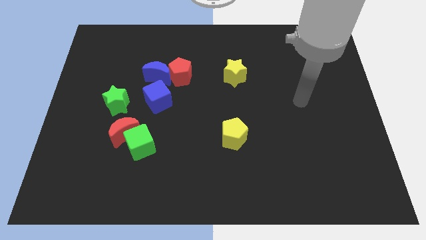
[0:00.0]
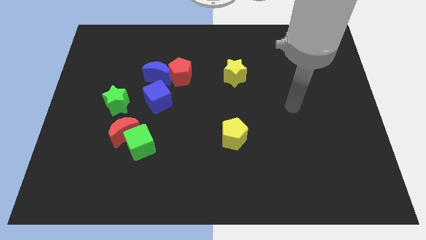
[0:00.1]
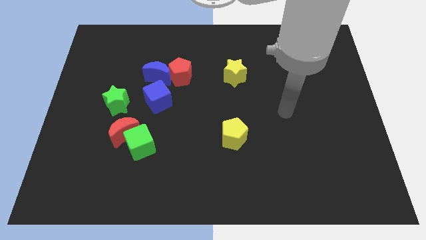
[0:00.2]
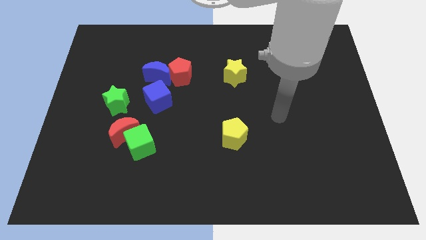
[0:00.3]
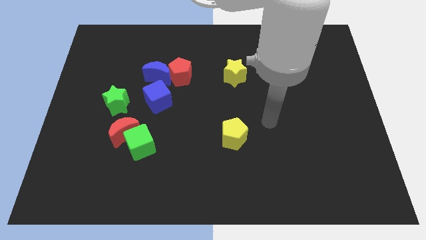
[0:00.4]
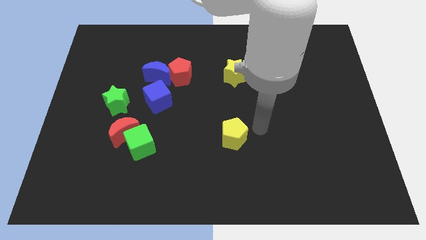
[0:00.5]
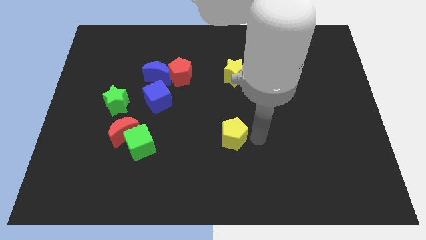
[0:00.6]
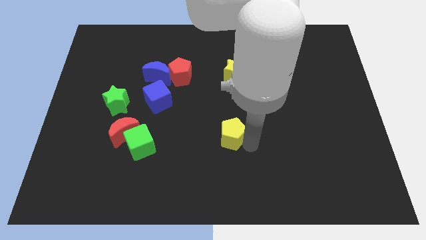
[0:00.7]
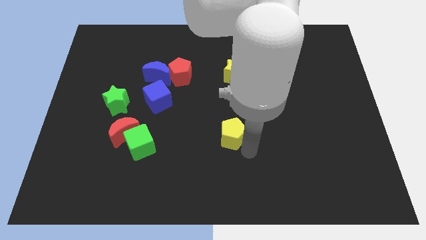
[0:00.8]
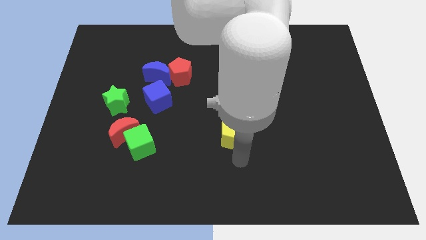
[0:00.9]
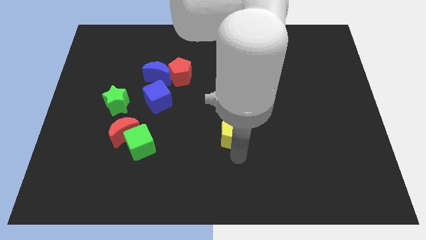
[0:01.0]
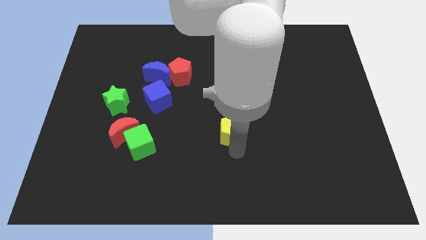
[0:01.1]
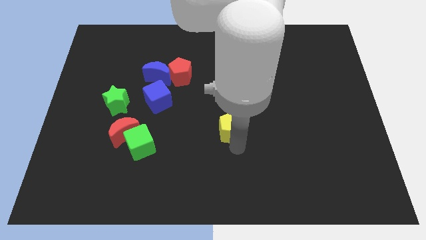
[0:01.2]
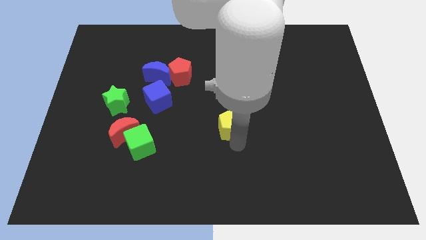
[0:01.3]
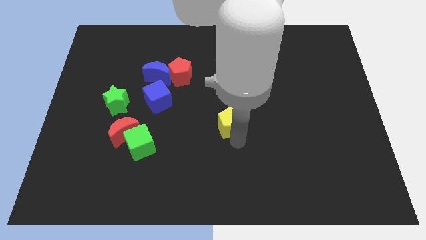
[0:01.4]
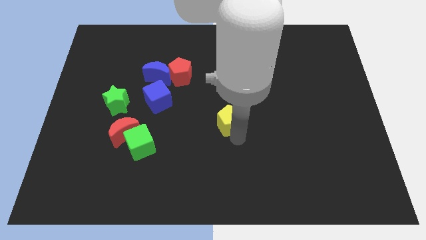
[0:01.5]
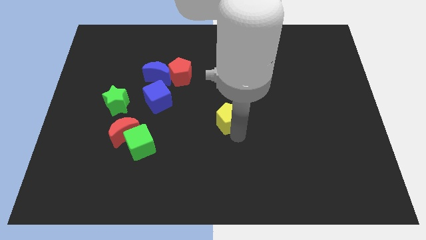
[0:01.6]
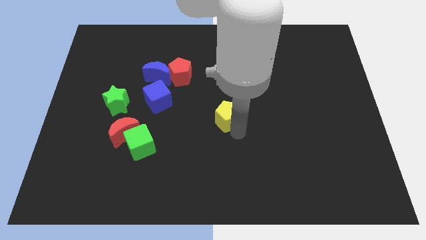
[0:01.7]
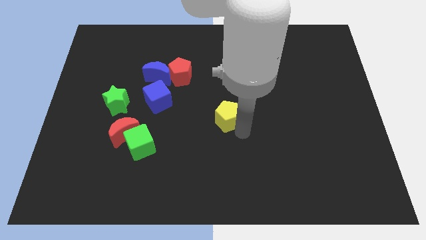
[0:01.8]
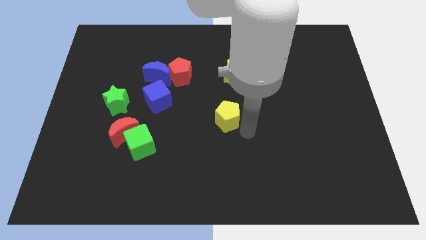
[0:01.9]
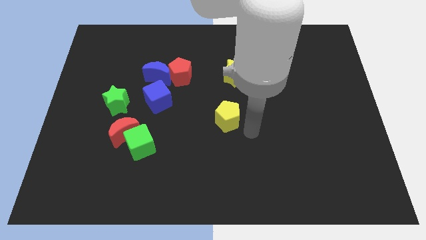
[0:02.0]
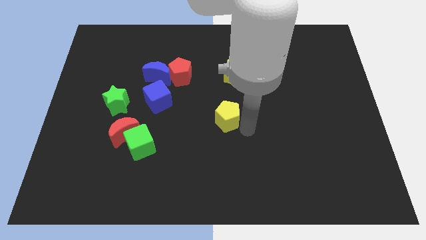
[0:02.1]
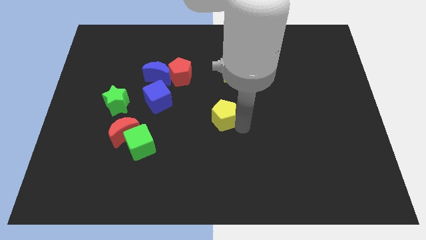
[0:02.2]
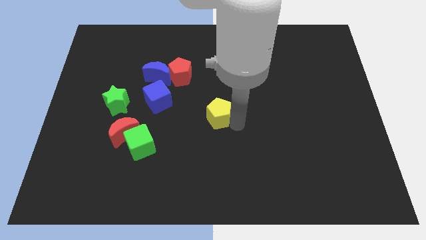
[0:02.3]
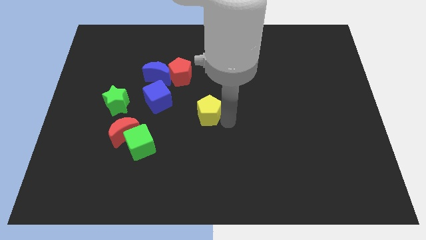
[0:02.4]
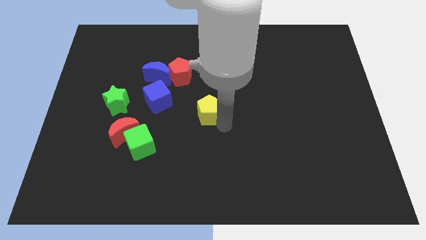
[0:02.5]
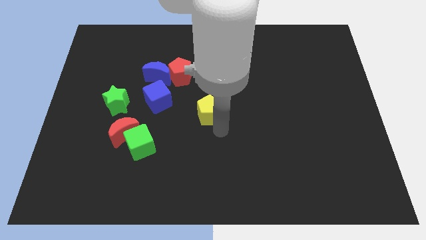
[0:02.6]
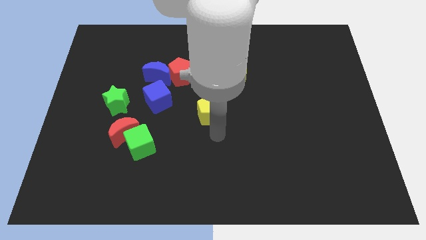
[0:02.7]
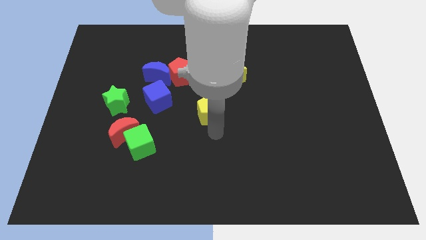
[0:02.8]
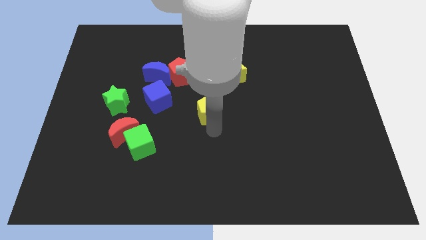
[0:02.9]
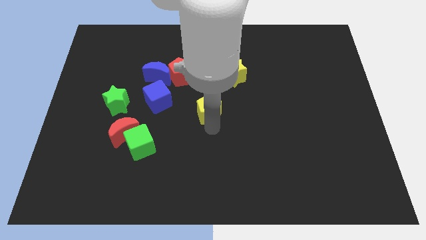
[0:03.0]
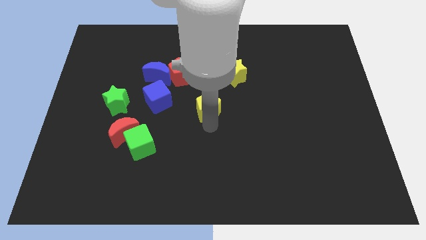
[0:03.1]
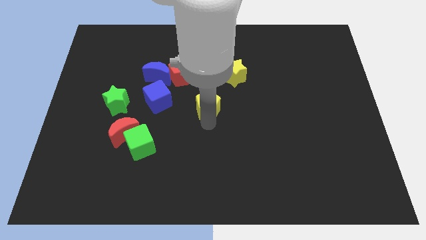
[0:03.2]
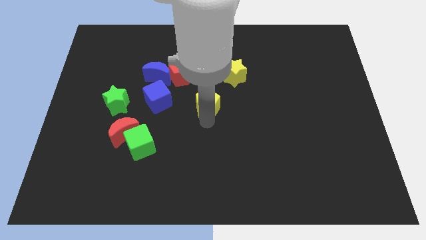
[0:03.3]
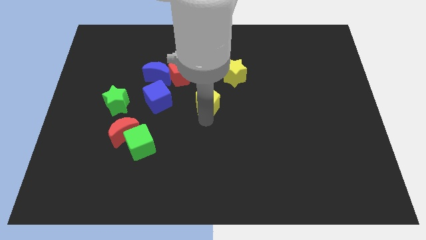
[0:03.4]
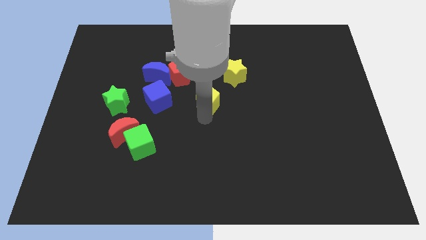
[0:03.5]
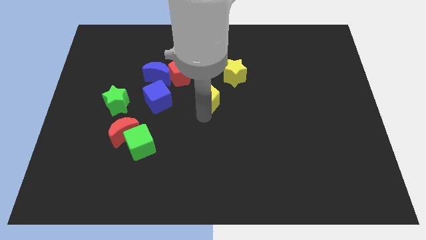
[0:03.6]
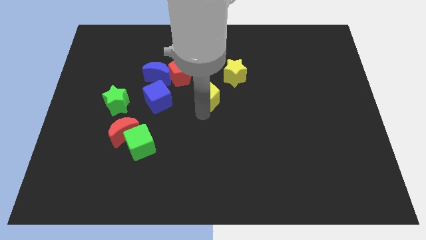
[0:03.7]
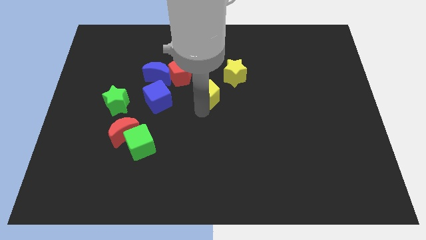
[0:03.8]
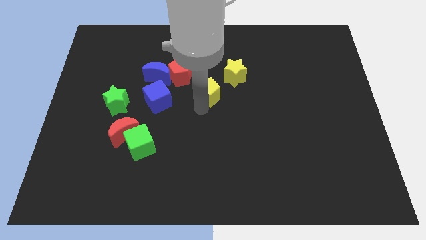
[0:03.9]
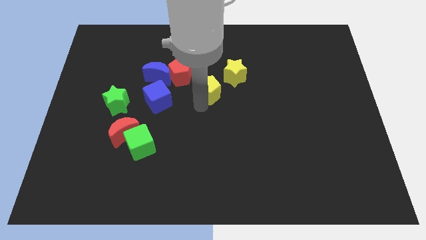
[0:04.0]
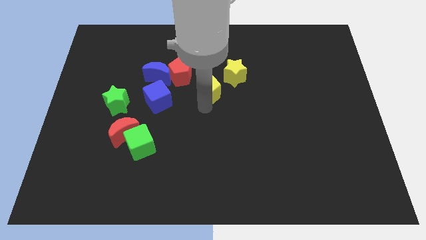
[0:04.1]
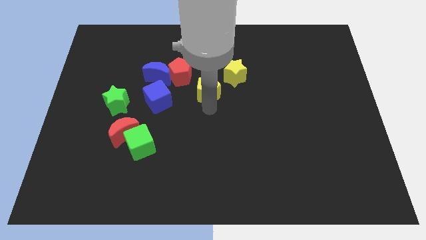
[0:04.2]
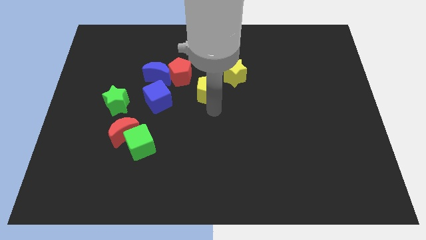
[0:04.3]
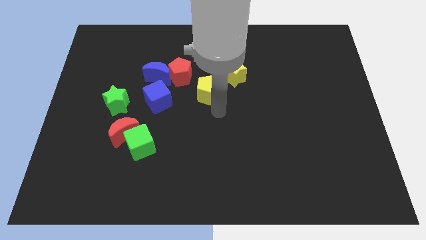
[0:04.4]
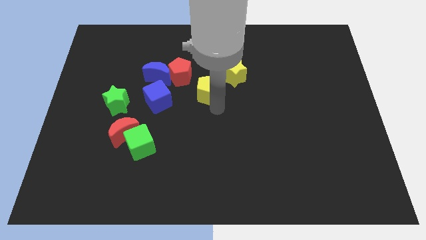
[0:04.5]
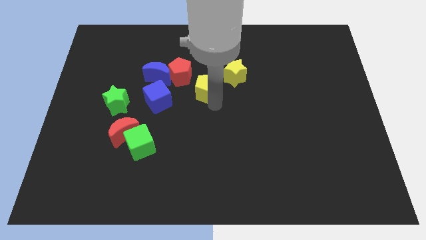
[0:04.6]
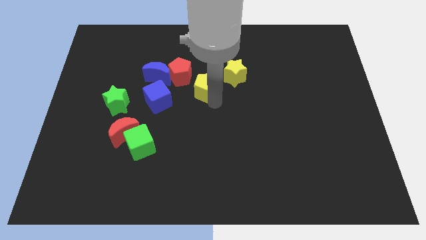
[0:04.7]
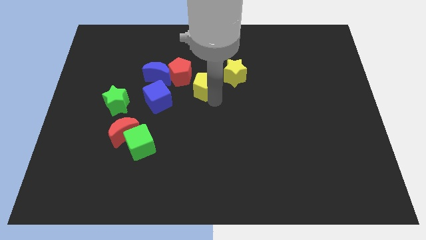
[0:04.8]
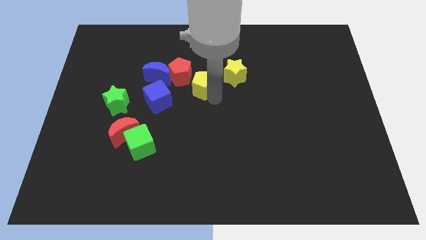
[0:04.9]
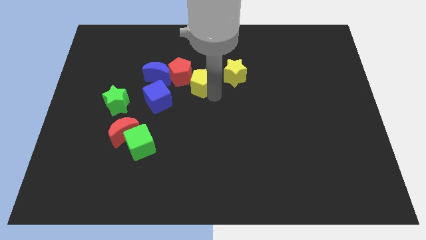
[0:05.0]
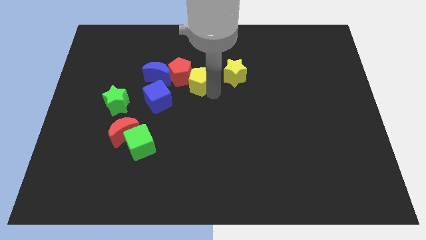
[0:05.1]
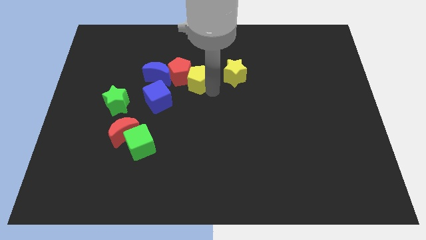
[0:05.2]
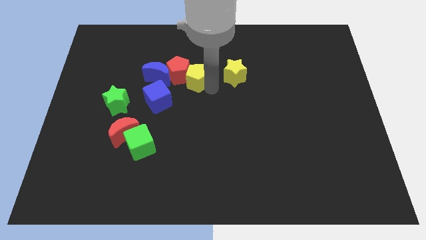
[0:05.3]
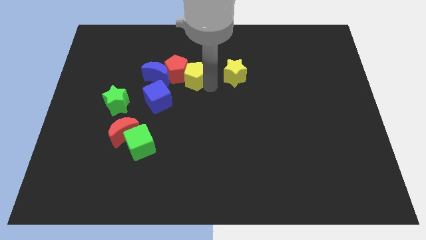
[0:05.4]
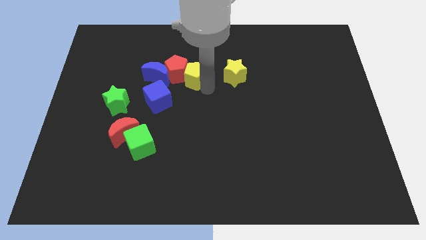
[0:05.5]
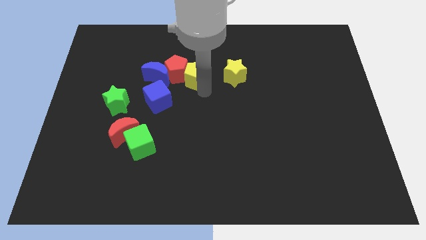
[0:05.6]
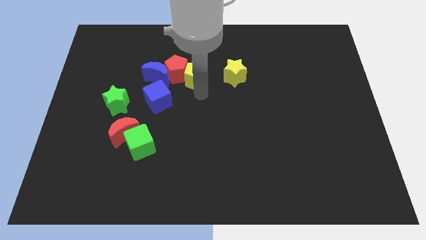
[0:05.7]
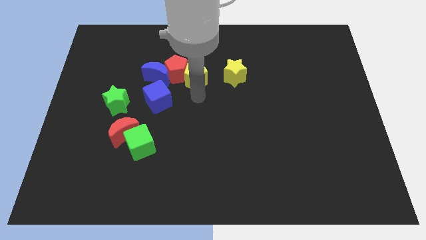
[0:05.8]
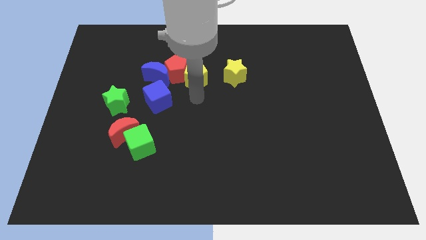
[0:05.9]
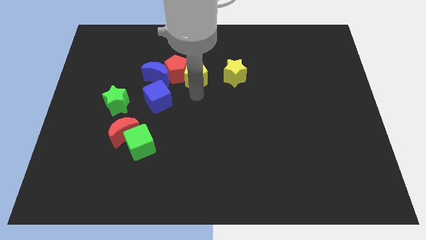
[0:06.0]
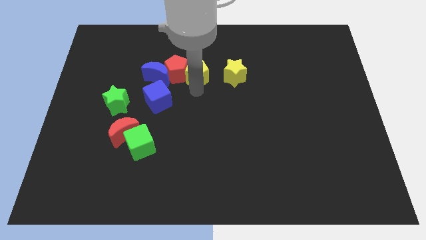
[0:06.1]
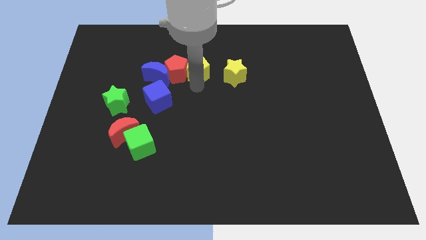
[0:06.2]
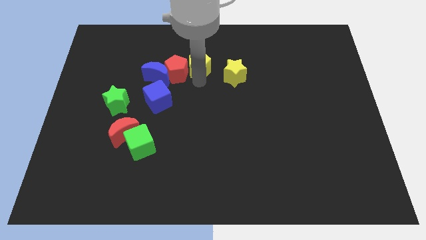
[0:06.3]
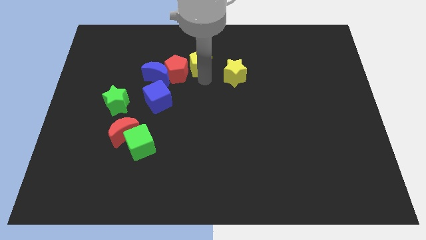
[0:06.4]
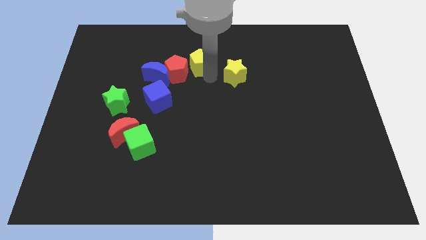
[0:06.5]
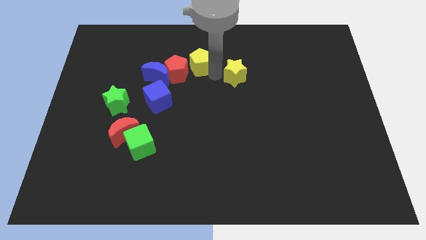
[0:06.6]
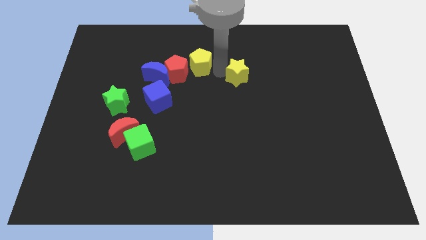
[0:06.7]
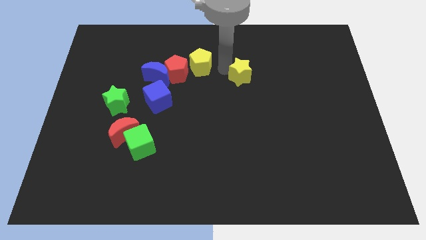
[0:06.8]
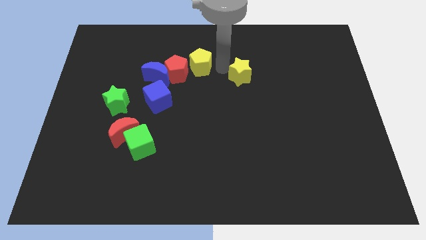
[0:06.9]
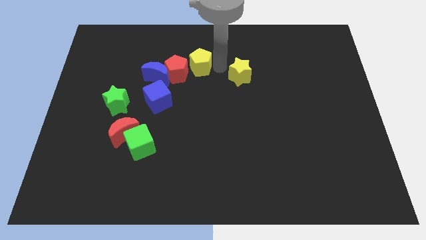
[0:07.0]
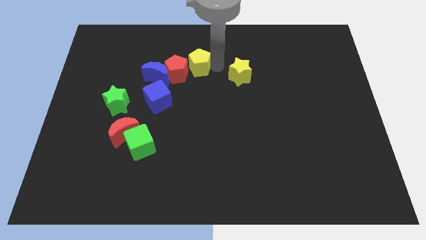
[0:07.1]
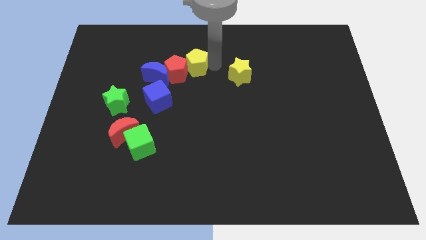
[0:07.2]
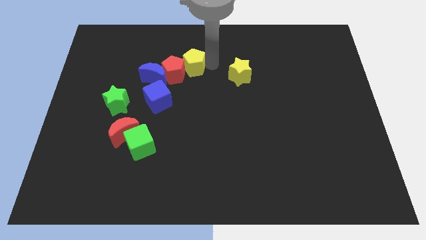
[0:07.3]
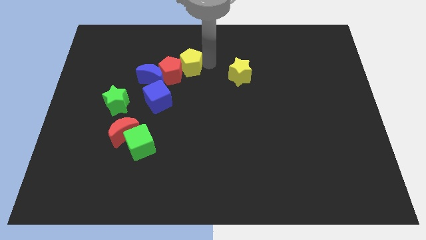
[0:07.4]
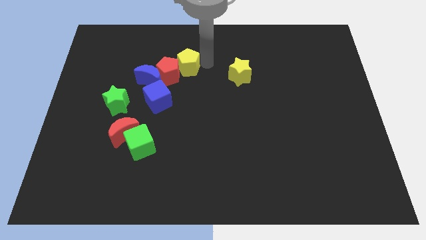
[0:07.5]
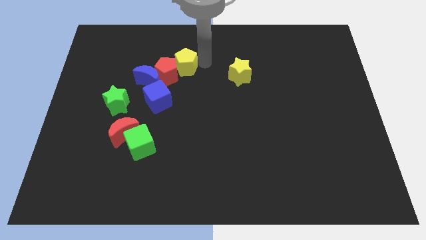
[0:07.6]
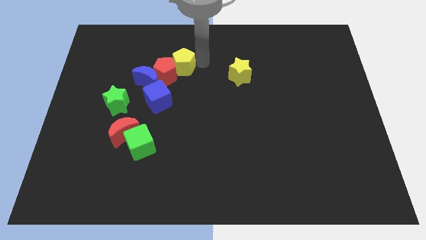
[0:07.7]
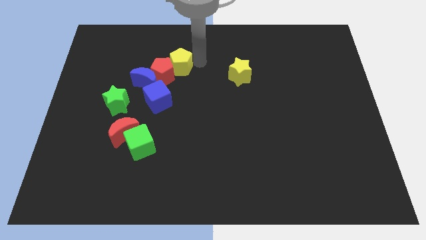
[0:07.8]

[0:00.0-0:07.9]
put the yellow pentagon to the top of the blue cube

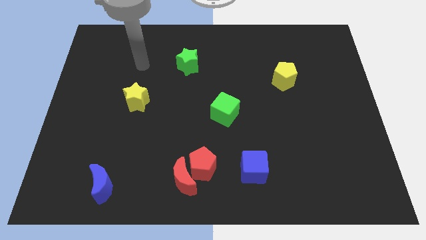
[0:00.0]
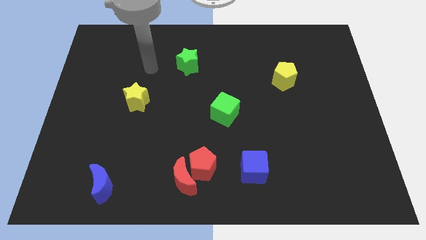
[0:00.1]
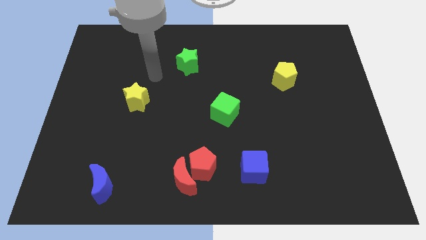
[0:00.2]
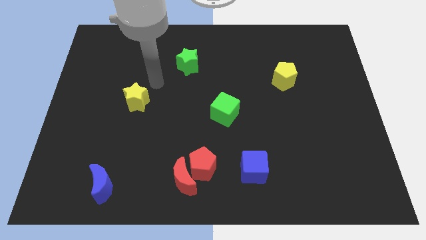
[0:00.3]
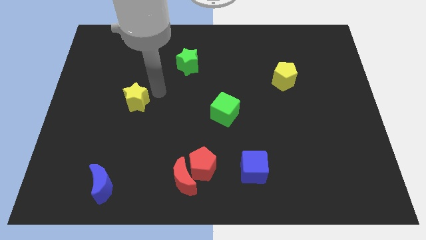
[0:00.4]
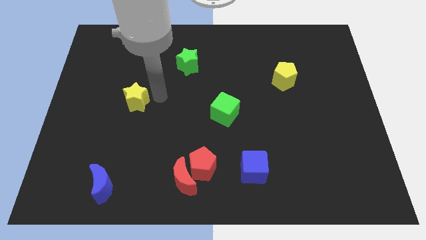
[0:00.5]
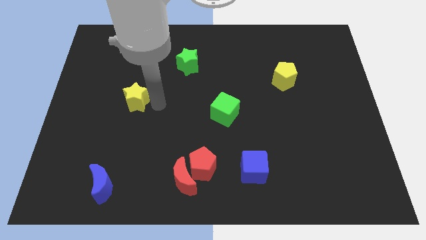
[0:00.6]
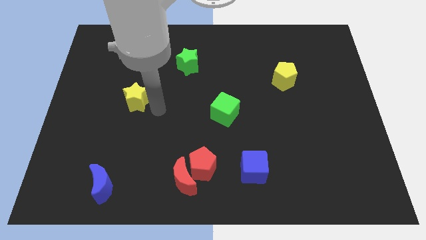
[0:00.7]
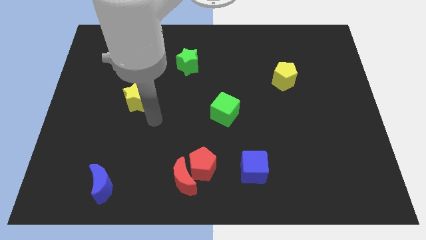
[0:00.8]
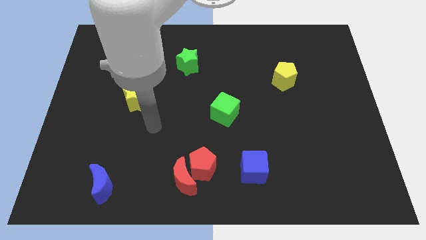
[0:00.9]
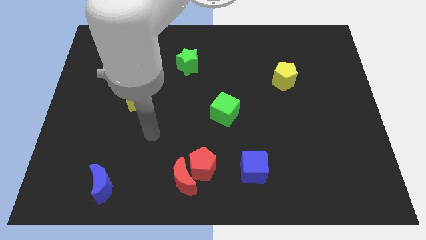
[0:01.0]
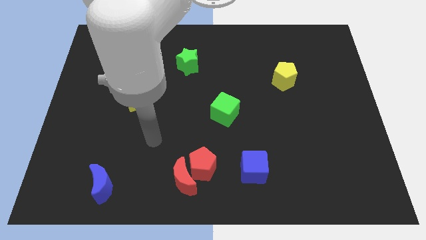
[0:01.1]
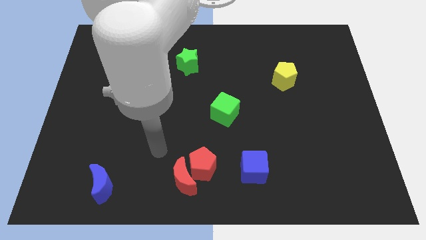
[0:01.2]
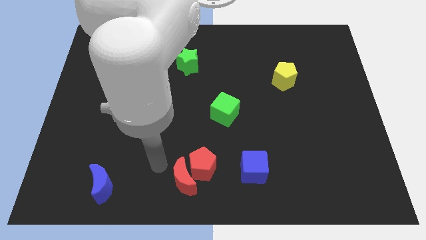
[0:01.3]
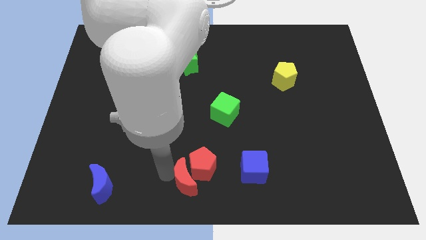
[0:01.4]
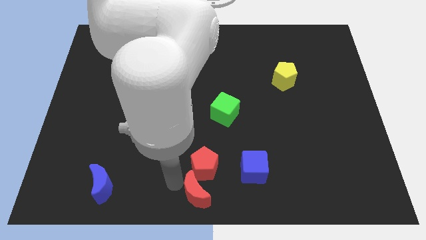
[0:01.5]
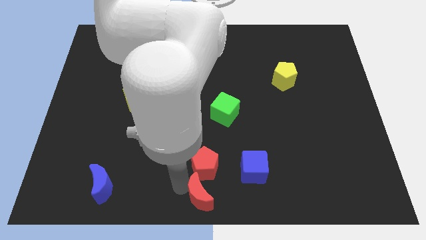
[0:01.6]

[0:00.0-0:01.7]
push the red pentagon to the bottom of the green cube
